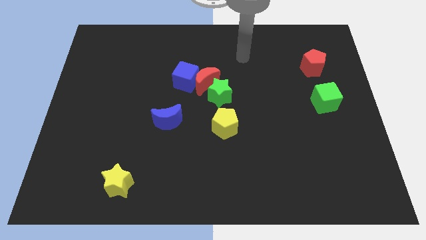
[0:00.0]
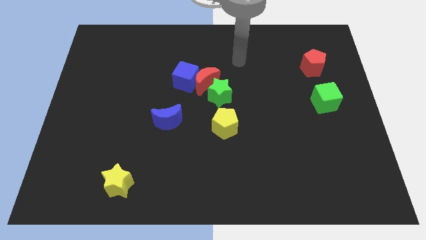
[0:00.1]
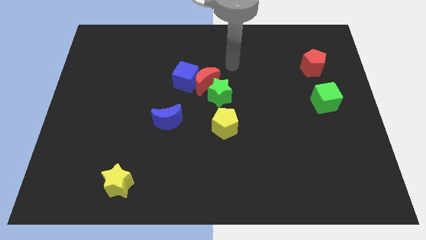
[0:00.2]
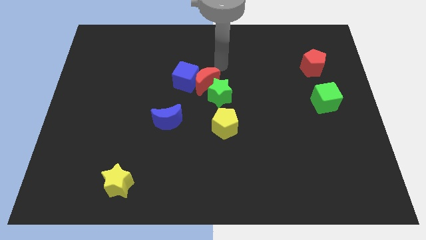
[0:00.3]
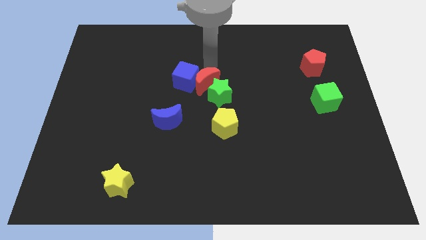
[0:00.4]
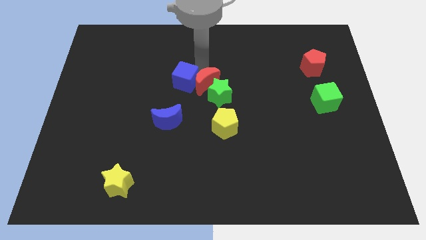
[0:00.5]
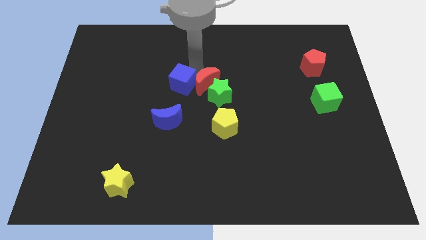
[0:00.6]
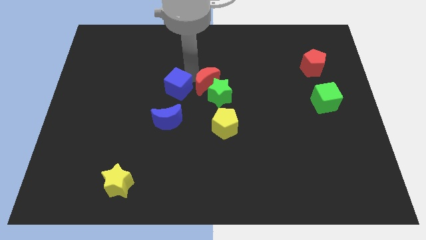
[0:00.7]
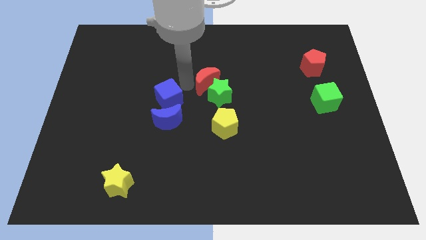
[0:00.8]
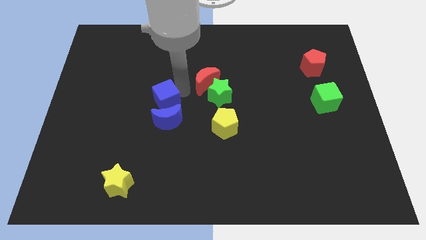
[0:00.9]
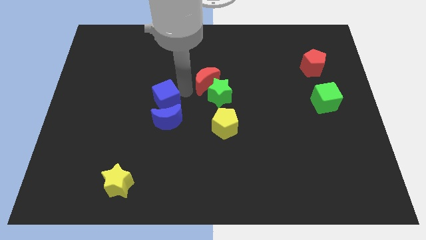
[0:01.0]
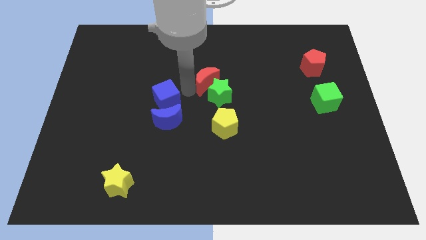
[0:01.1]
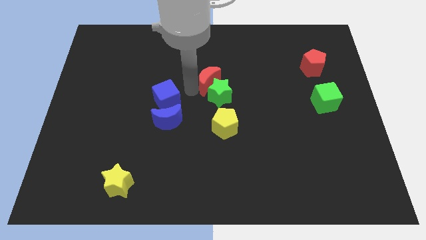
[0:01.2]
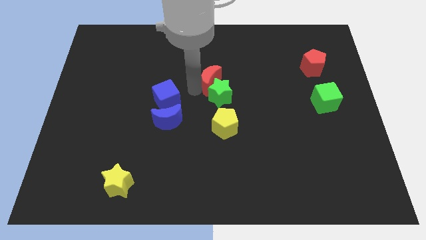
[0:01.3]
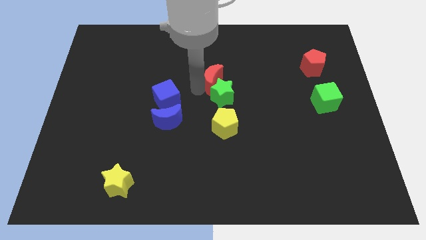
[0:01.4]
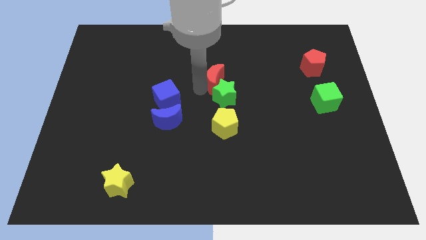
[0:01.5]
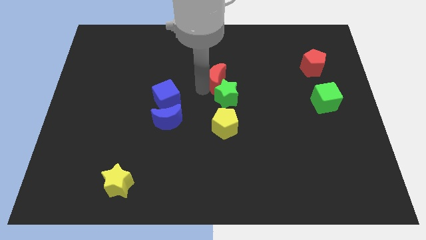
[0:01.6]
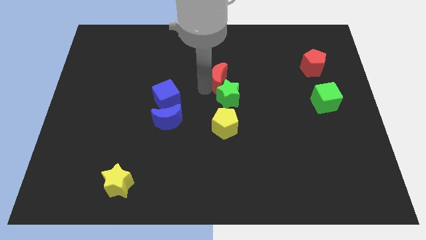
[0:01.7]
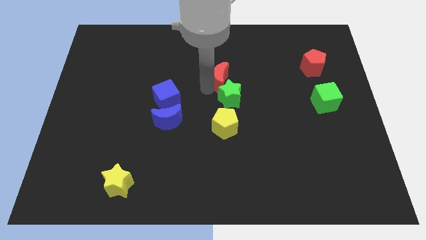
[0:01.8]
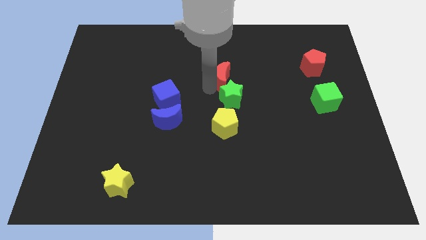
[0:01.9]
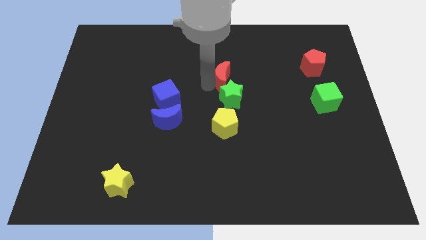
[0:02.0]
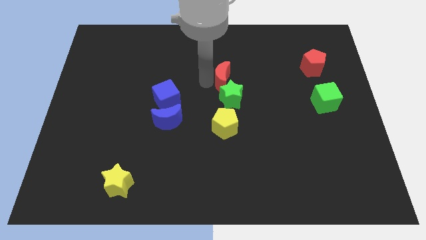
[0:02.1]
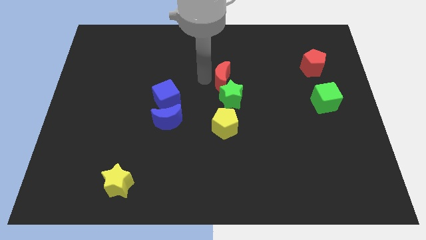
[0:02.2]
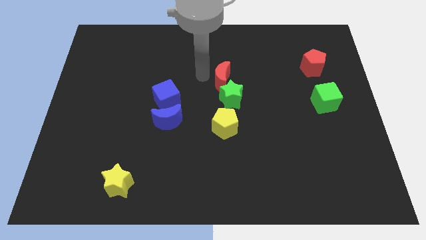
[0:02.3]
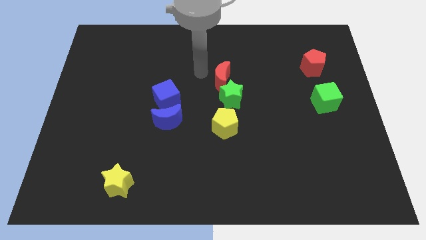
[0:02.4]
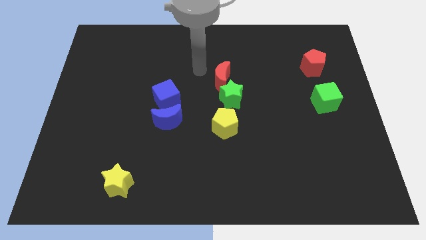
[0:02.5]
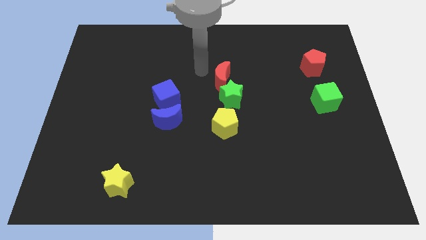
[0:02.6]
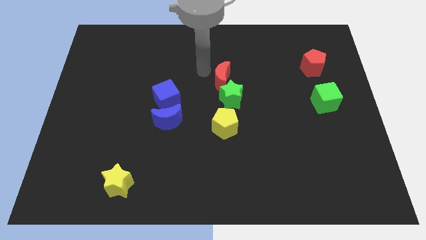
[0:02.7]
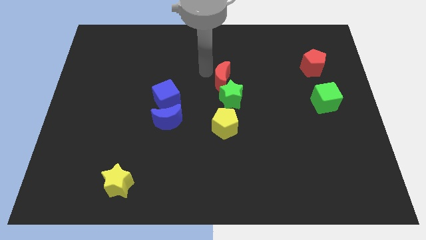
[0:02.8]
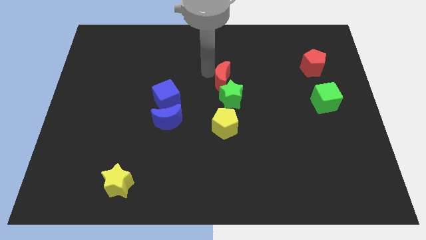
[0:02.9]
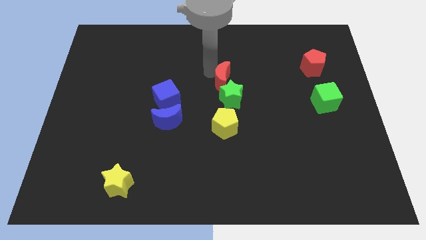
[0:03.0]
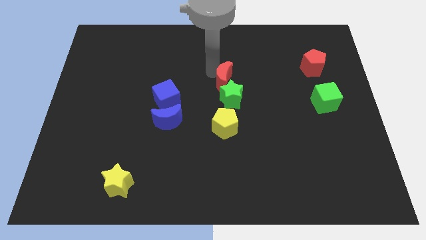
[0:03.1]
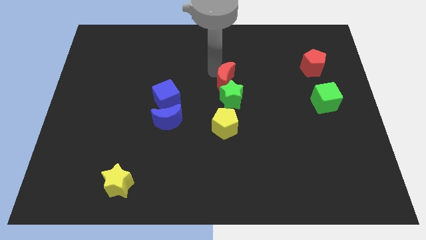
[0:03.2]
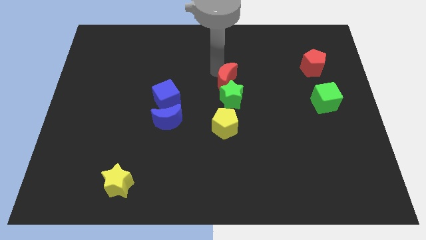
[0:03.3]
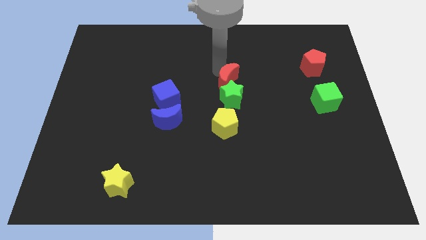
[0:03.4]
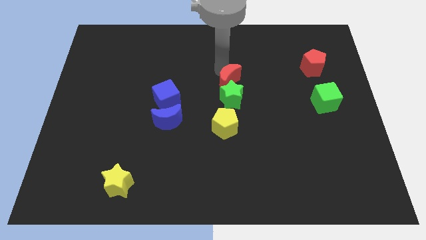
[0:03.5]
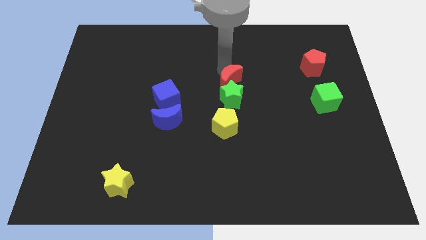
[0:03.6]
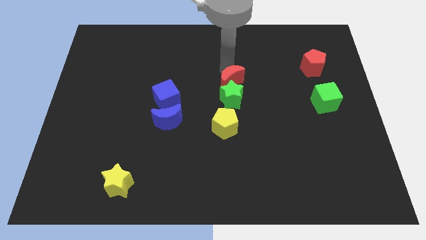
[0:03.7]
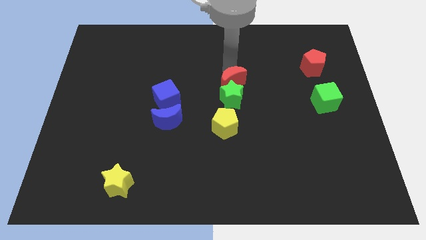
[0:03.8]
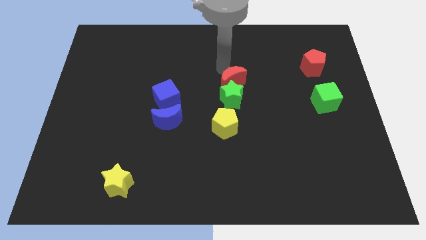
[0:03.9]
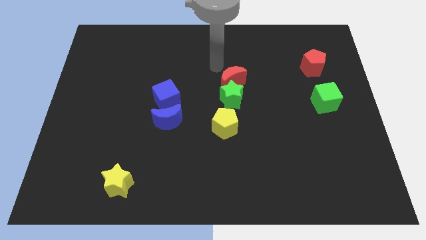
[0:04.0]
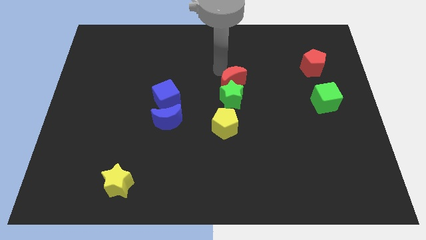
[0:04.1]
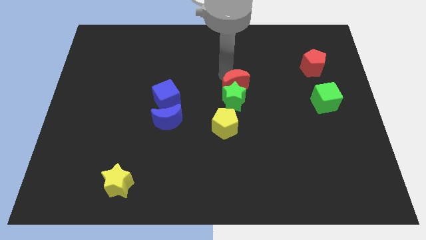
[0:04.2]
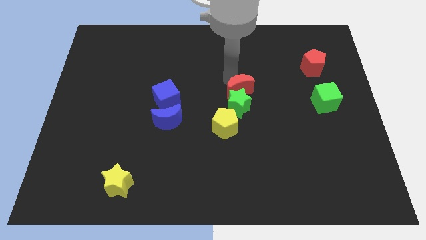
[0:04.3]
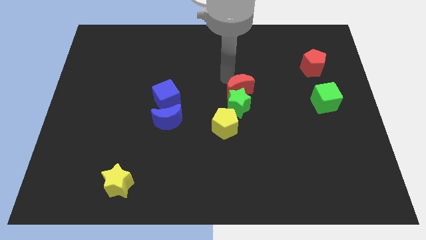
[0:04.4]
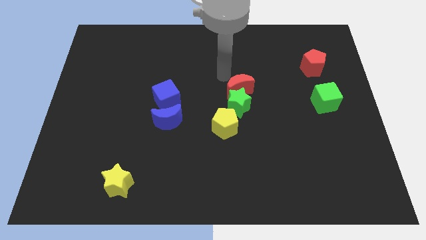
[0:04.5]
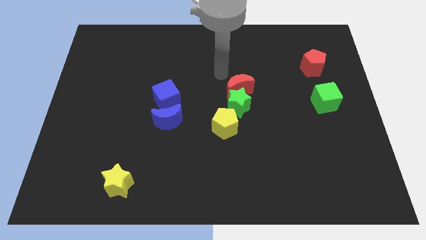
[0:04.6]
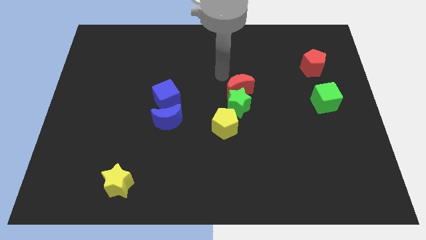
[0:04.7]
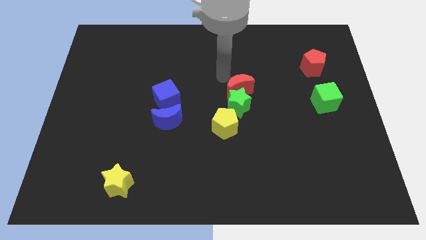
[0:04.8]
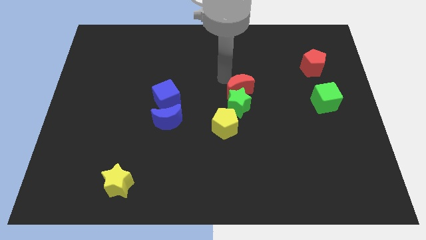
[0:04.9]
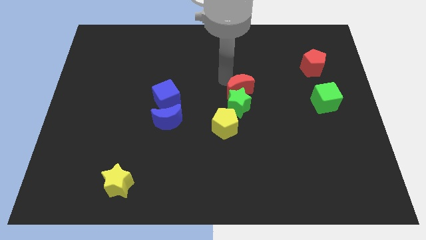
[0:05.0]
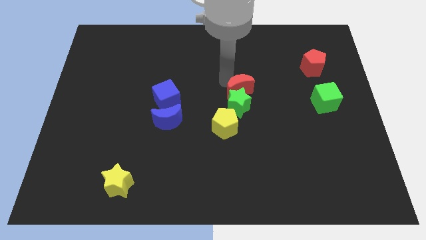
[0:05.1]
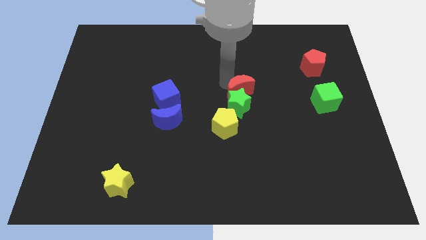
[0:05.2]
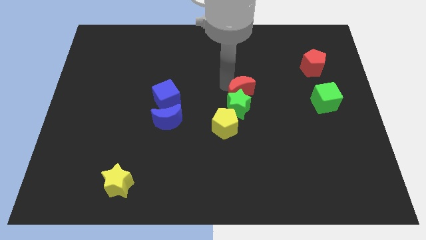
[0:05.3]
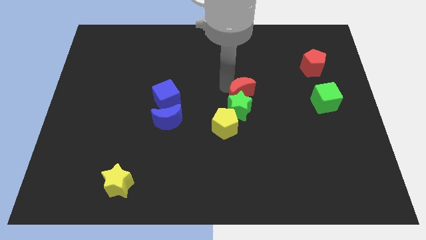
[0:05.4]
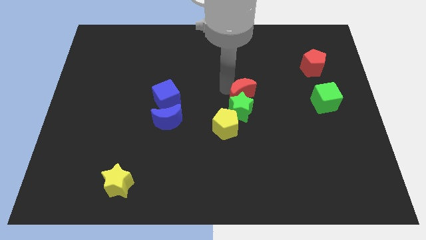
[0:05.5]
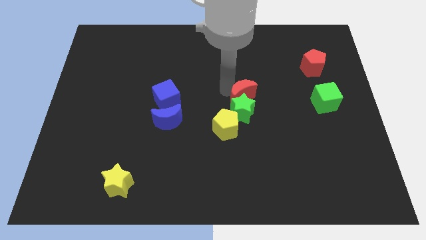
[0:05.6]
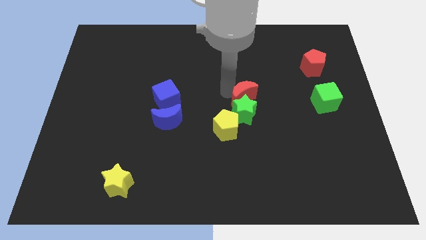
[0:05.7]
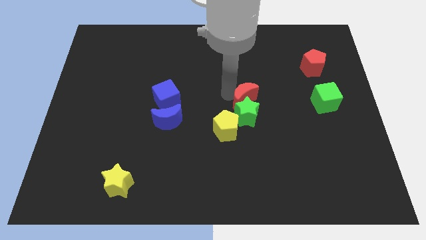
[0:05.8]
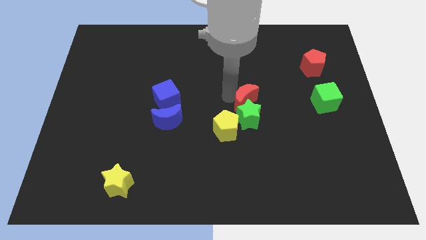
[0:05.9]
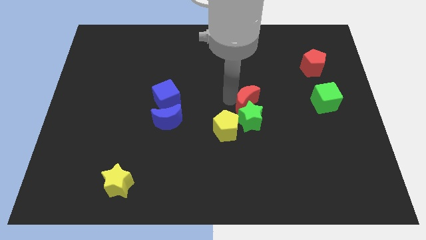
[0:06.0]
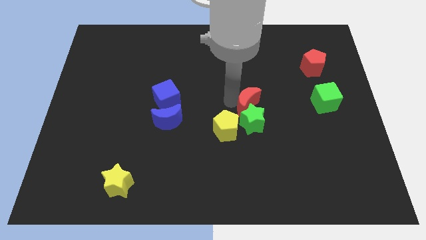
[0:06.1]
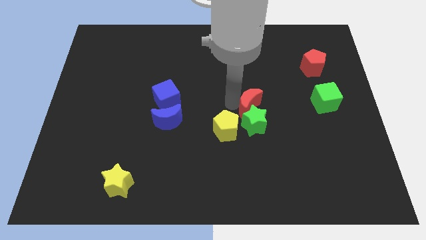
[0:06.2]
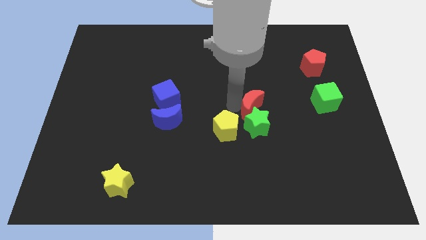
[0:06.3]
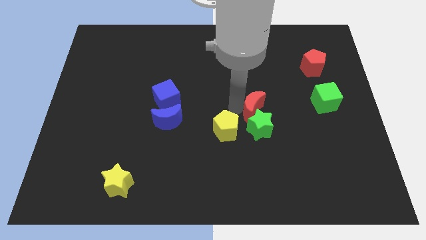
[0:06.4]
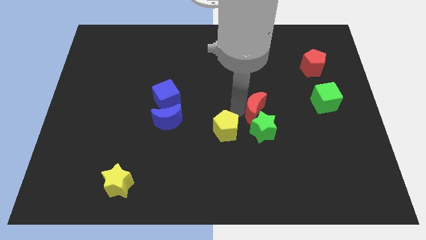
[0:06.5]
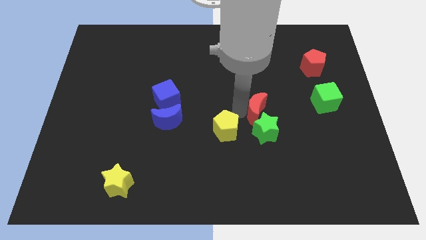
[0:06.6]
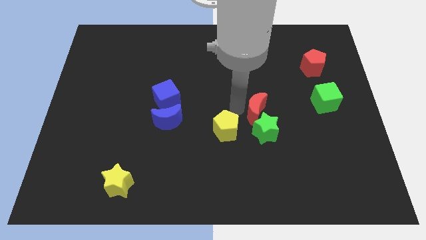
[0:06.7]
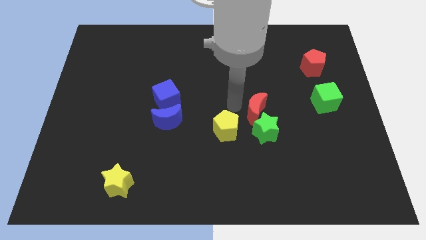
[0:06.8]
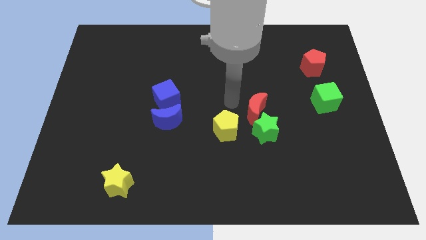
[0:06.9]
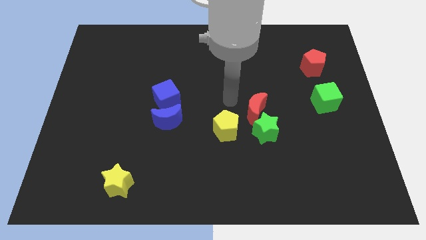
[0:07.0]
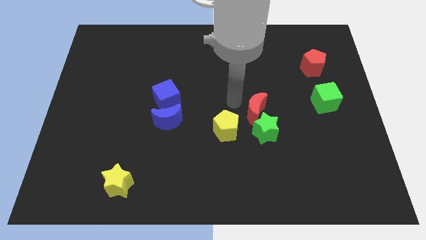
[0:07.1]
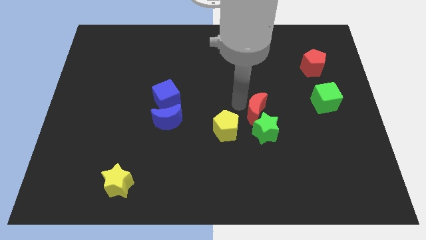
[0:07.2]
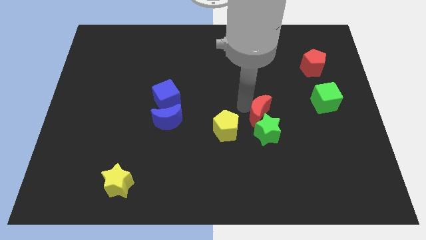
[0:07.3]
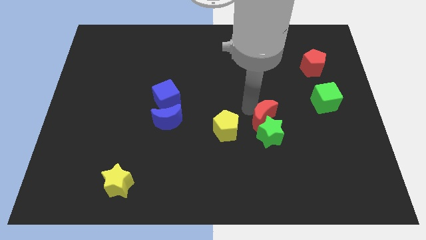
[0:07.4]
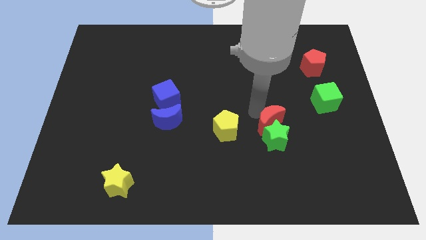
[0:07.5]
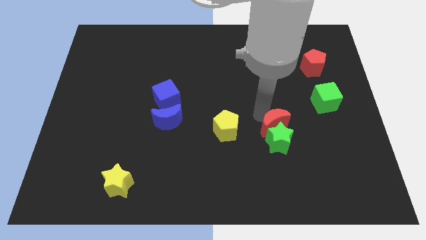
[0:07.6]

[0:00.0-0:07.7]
slide the red moon downwards and right diagonally

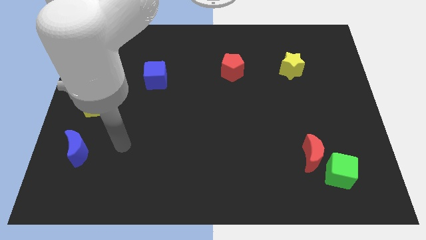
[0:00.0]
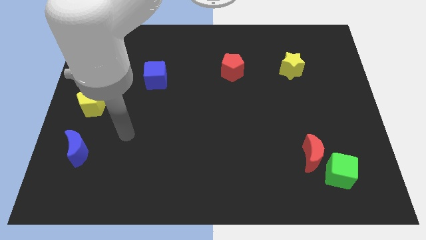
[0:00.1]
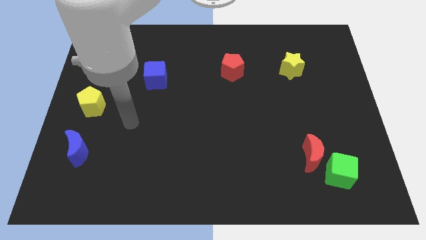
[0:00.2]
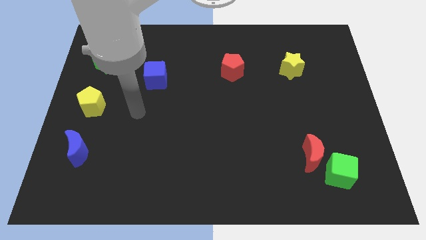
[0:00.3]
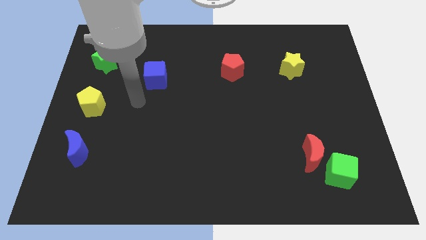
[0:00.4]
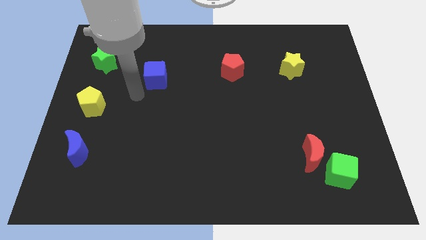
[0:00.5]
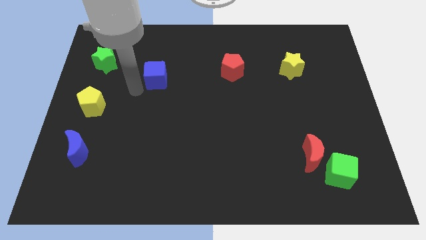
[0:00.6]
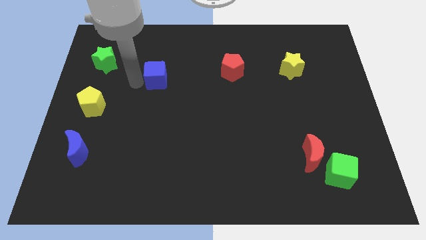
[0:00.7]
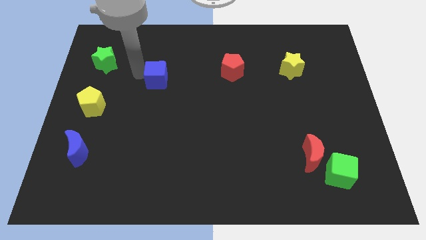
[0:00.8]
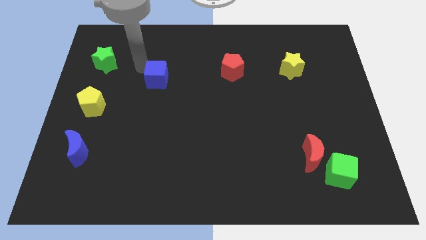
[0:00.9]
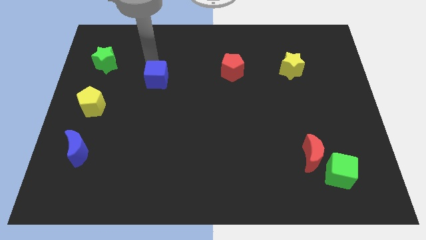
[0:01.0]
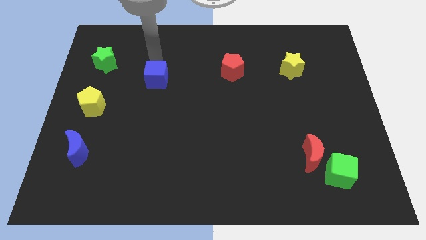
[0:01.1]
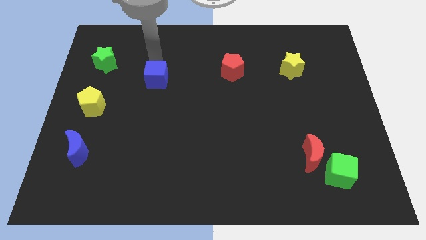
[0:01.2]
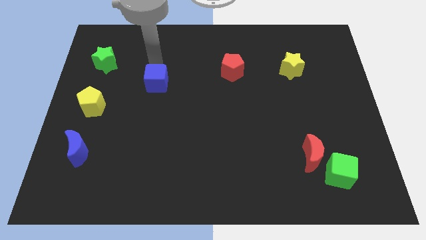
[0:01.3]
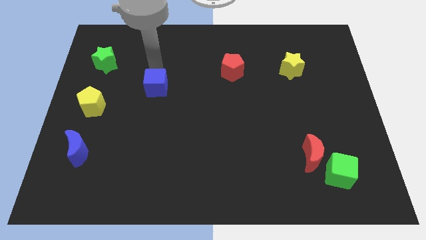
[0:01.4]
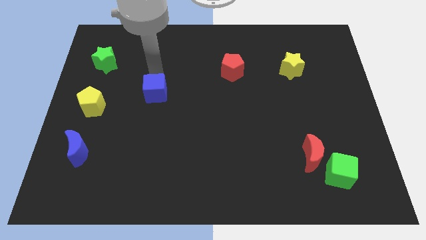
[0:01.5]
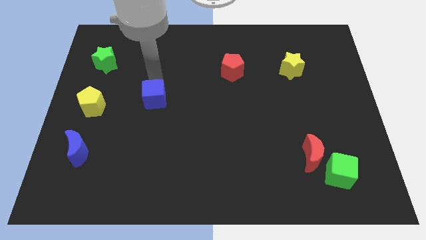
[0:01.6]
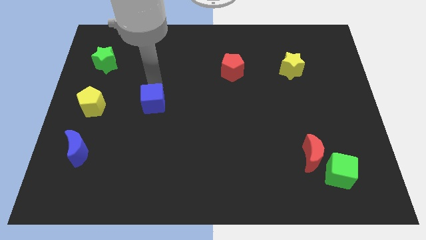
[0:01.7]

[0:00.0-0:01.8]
push the blue cube down a bit
